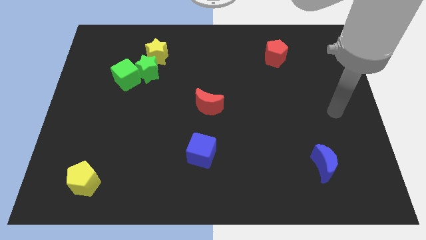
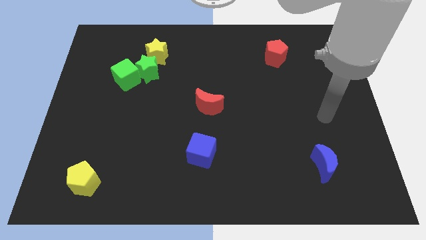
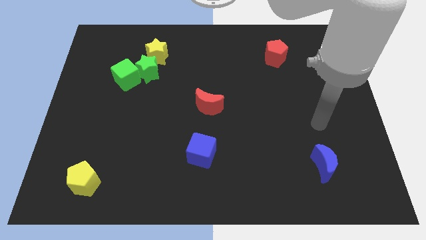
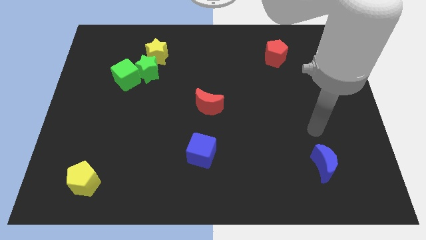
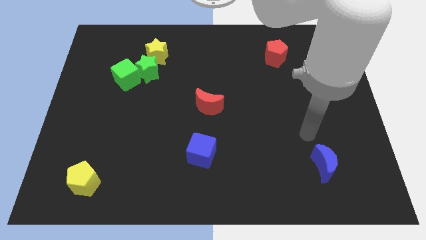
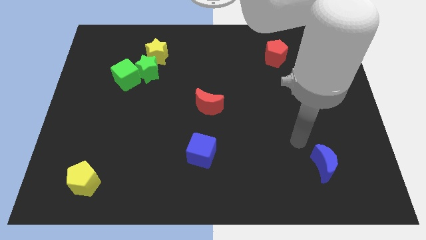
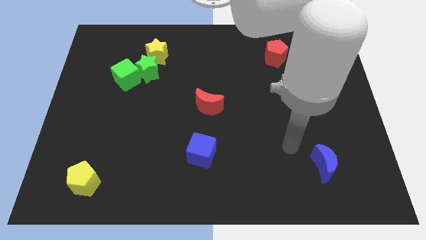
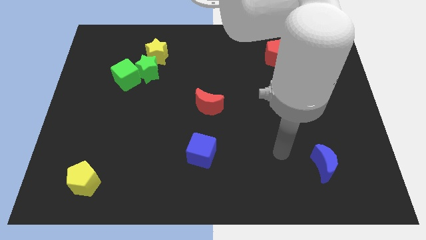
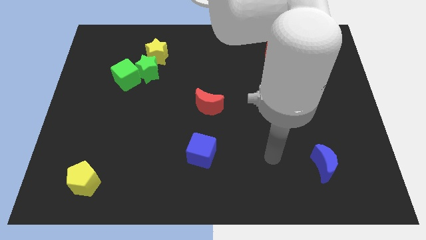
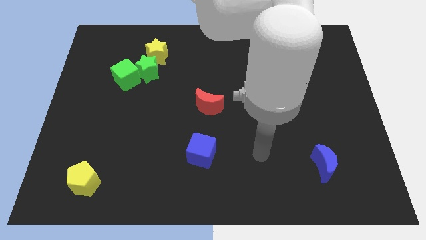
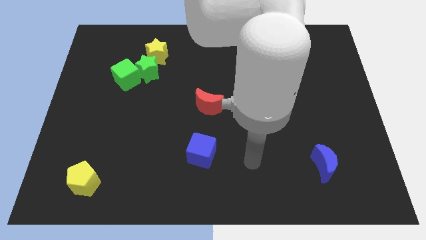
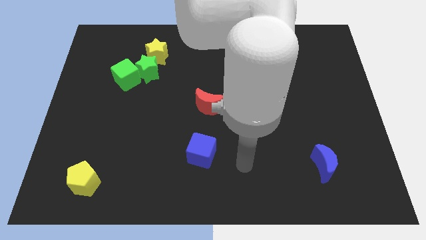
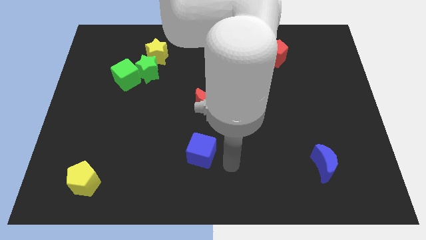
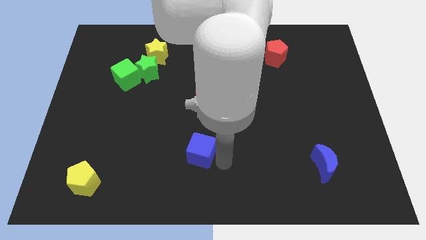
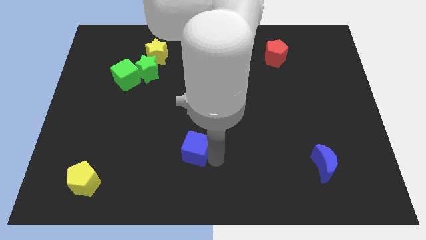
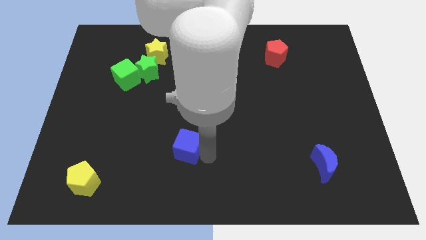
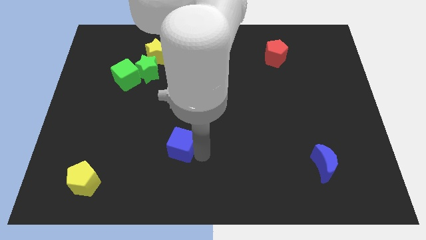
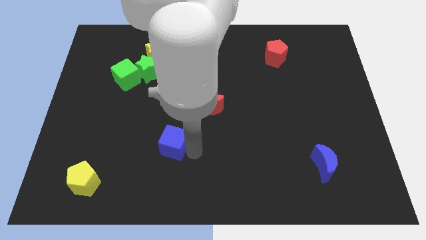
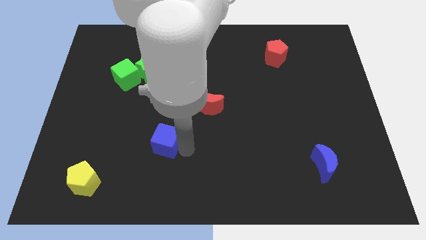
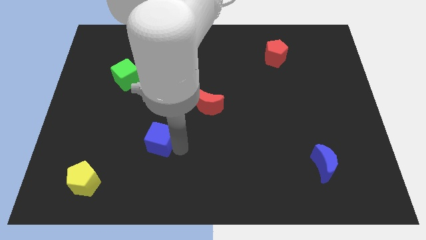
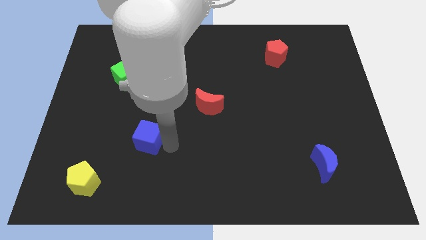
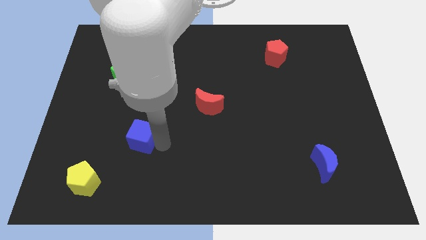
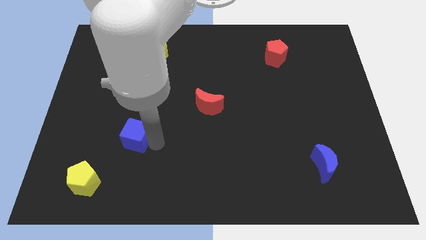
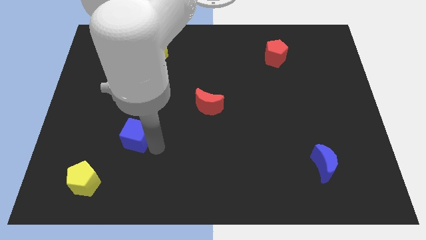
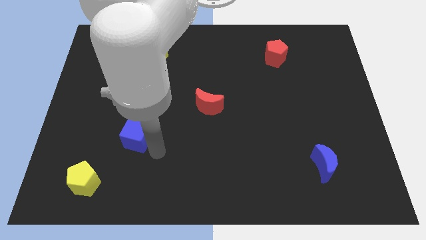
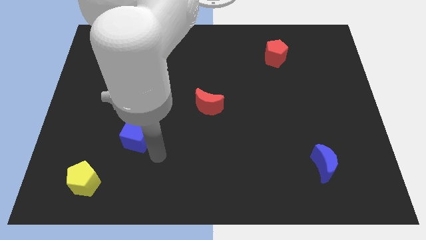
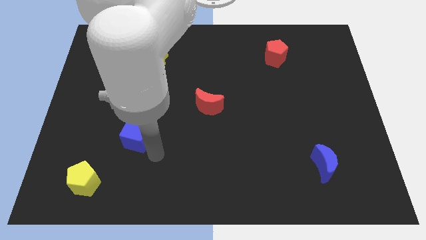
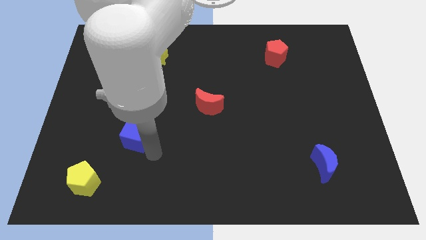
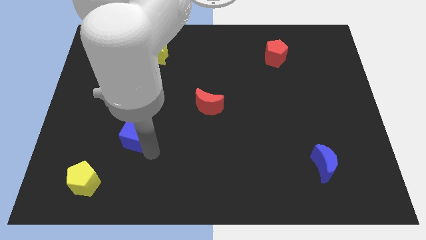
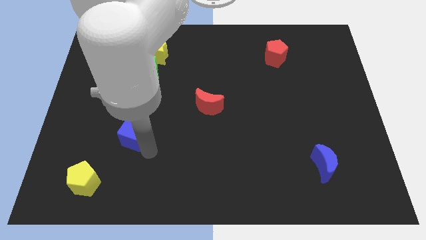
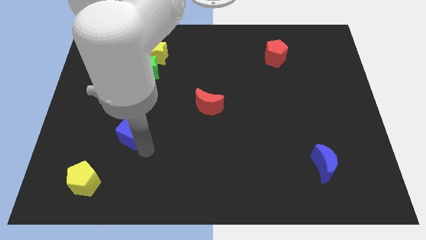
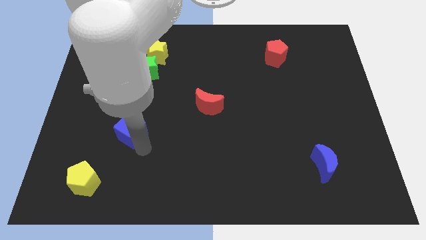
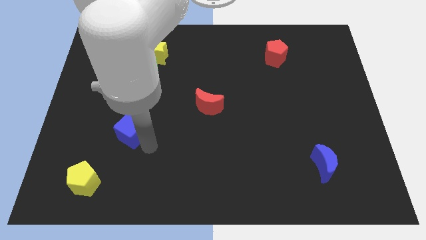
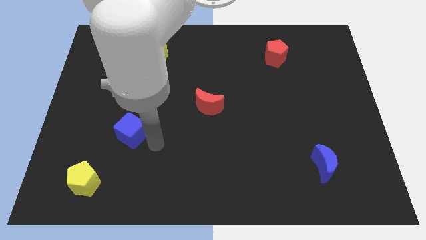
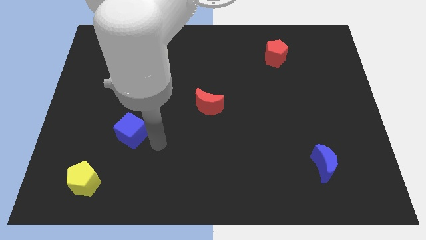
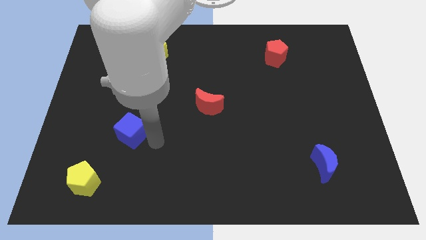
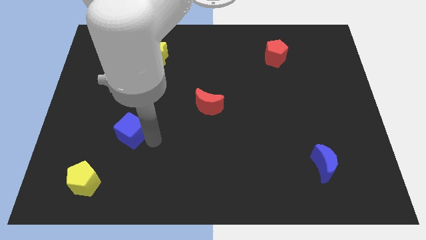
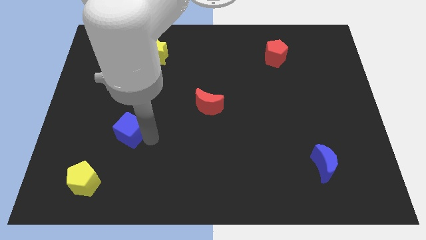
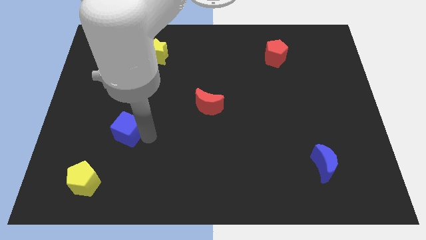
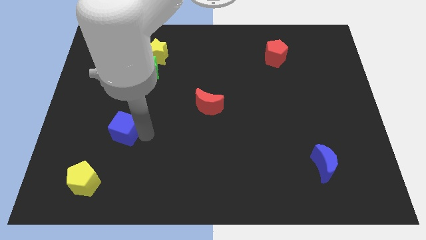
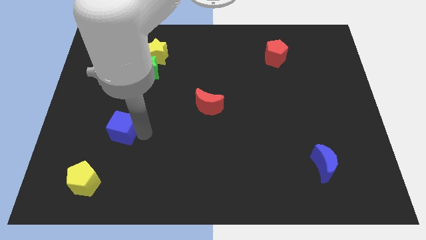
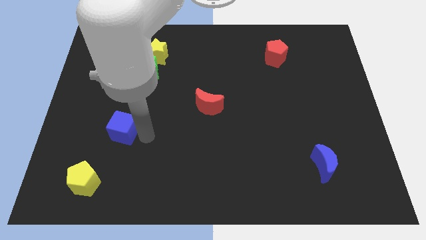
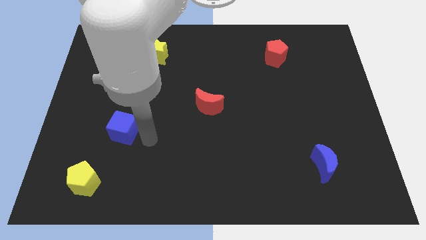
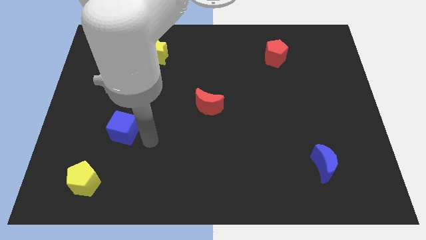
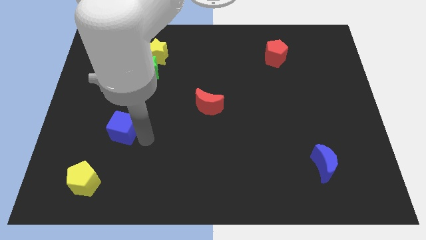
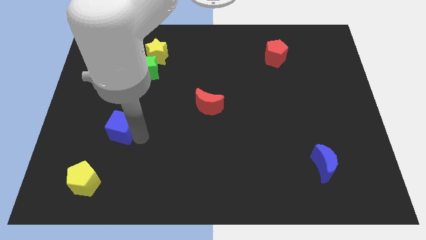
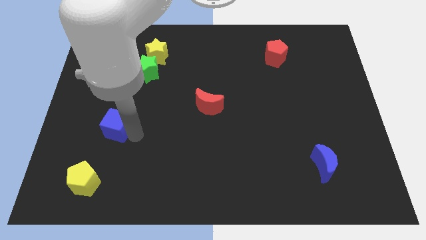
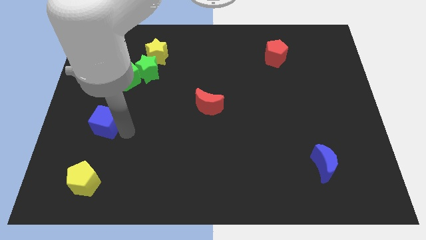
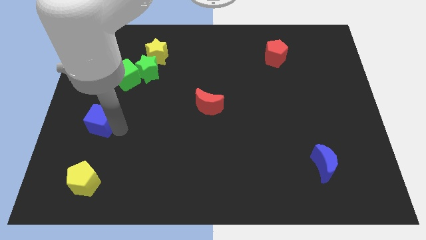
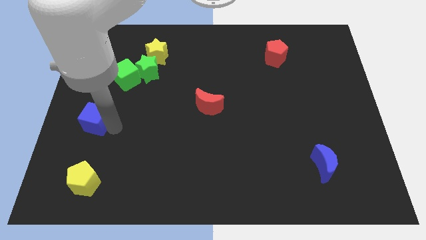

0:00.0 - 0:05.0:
move the blue cube to the left side of the board

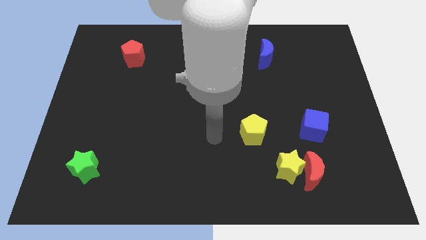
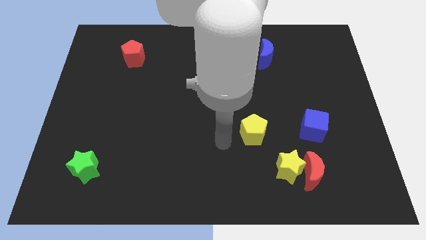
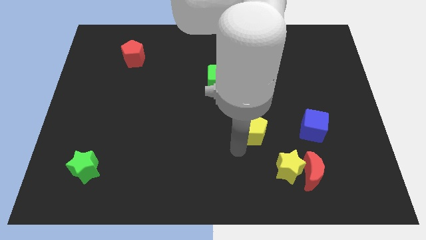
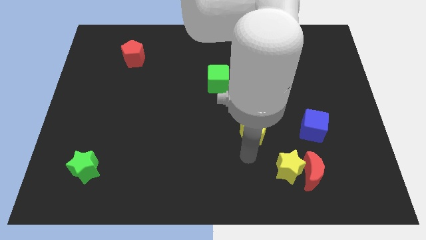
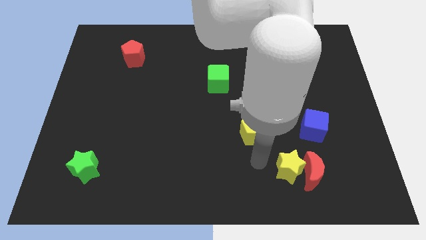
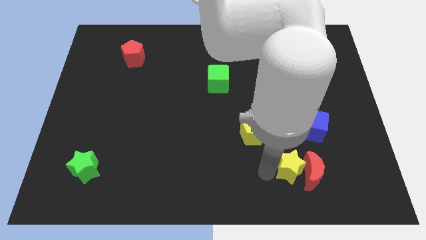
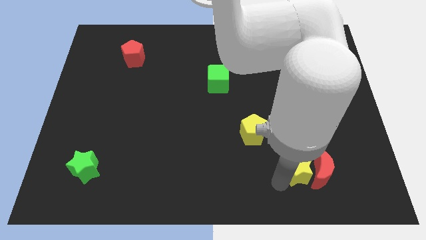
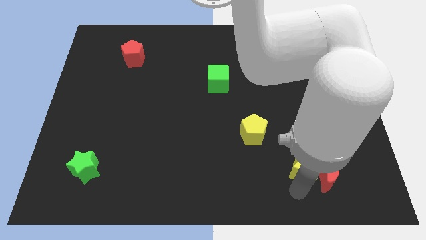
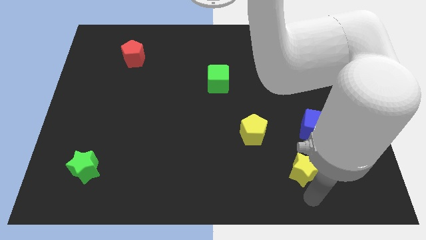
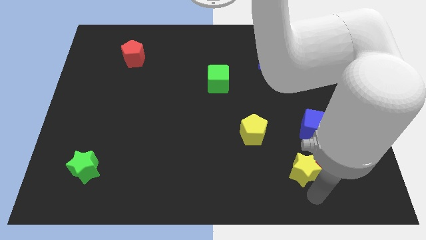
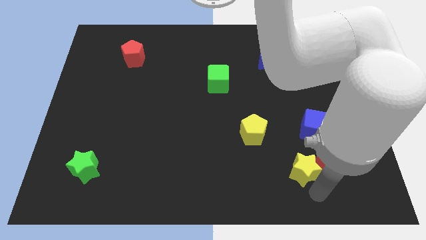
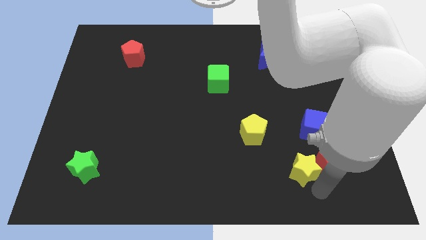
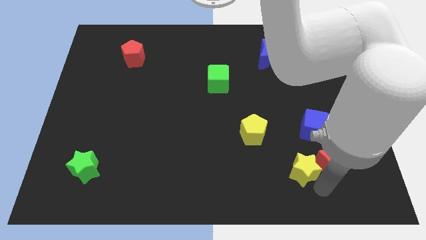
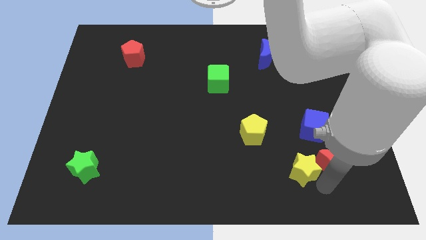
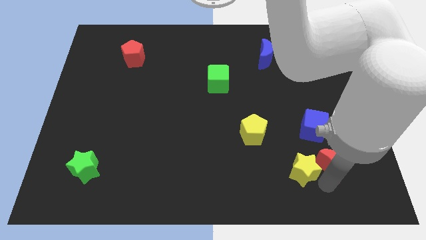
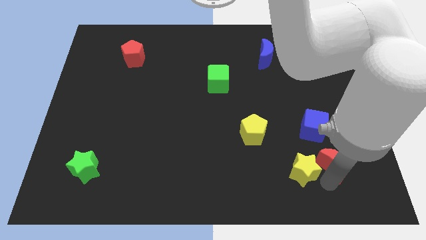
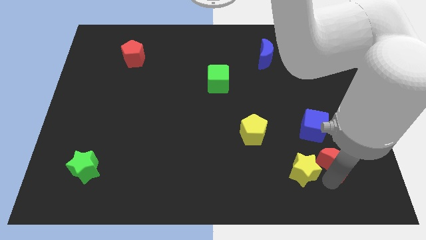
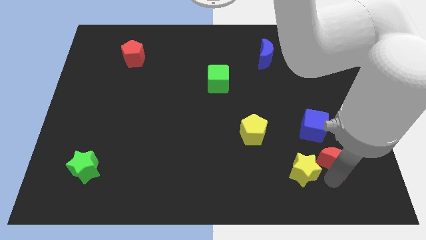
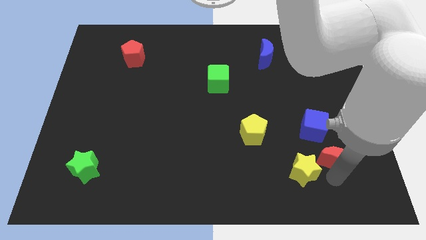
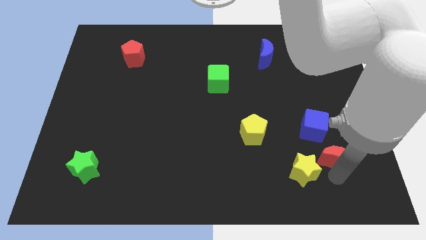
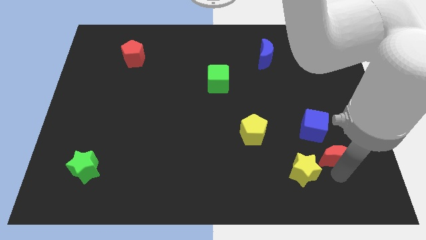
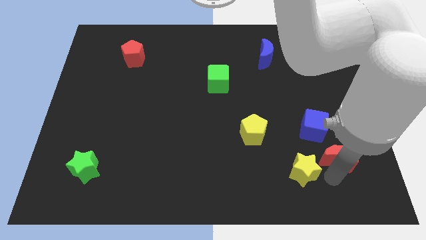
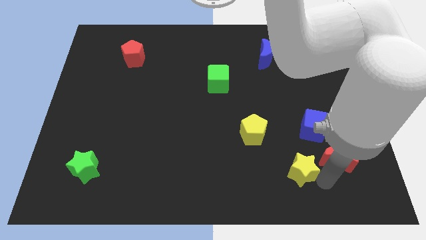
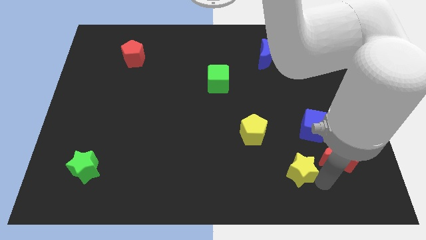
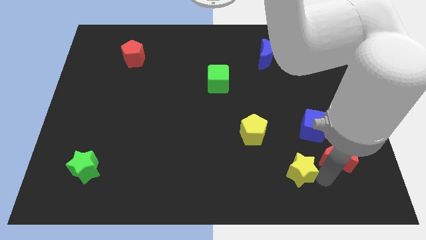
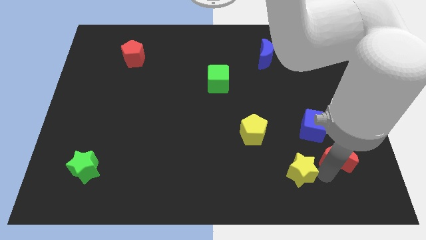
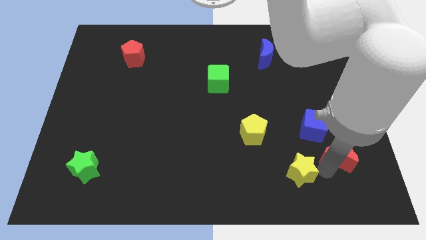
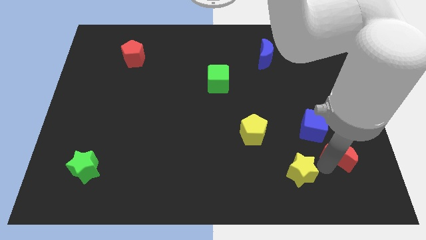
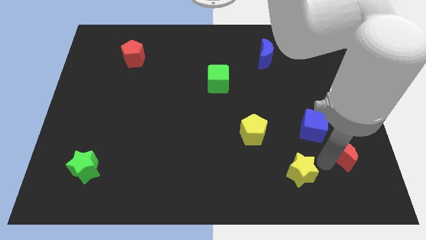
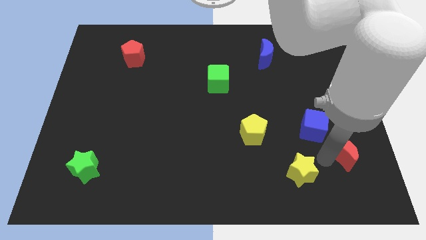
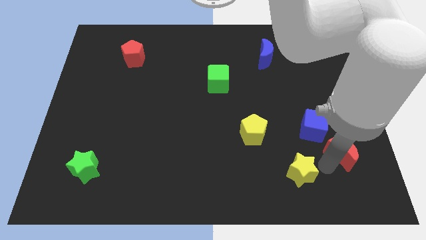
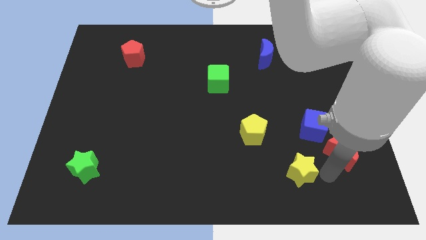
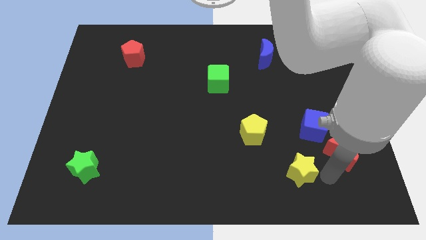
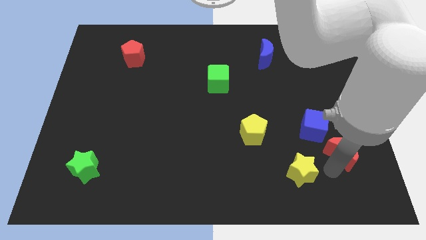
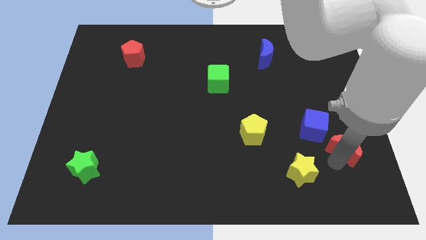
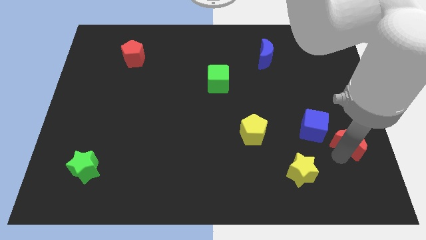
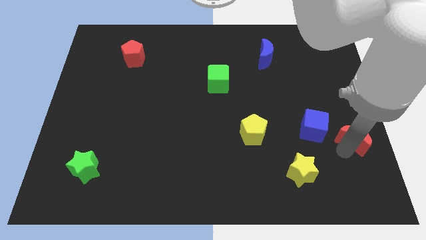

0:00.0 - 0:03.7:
move the red moon to the right side
